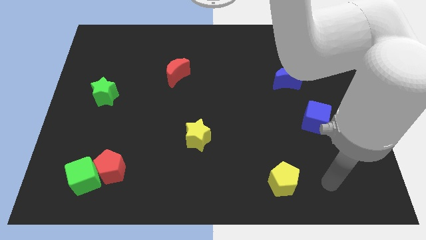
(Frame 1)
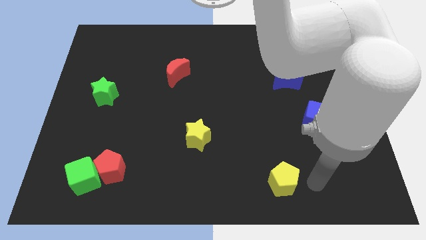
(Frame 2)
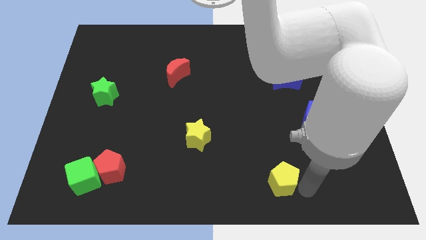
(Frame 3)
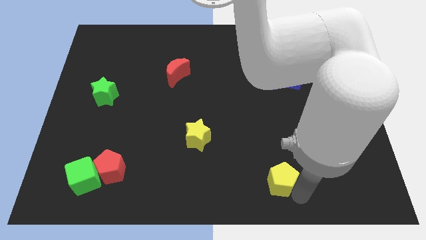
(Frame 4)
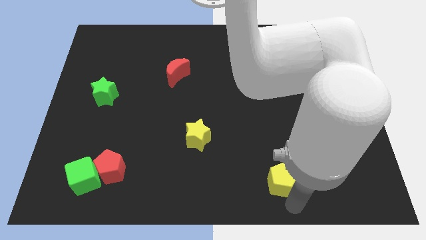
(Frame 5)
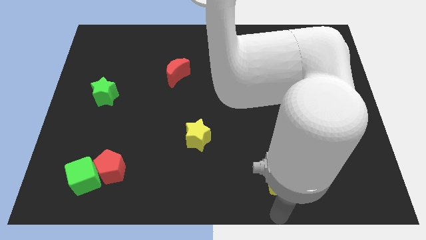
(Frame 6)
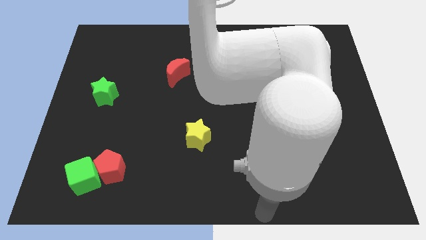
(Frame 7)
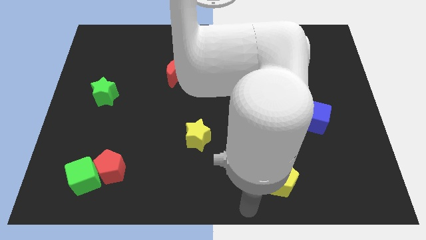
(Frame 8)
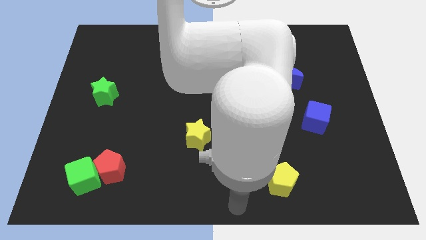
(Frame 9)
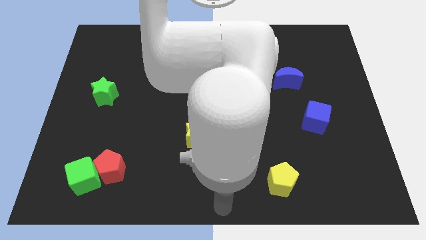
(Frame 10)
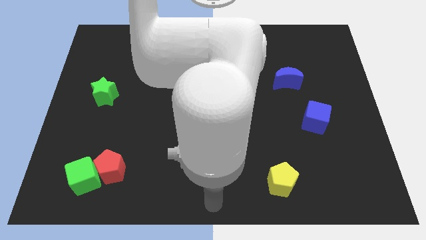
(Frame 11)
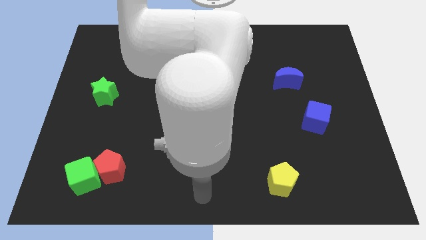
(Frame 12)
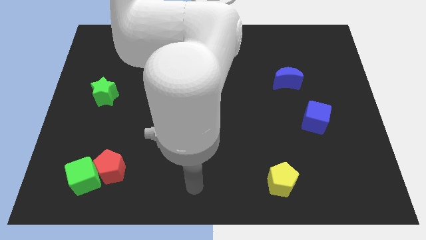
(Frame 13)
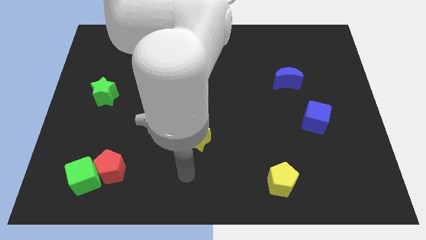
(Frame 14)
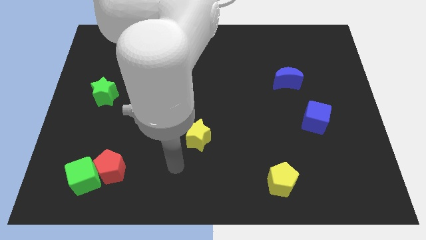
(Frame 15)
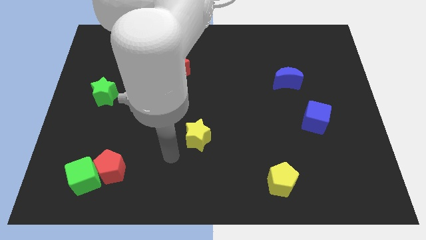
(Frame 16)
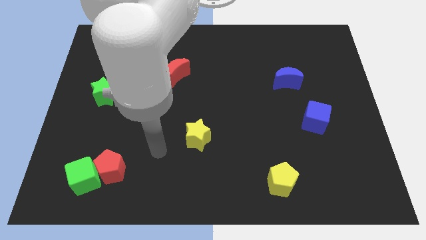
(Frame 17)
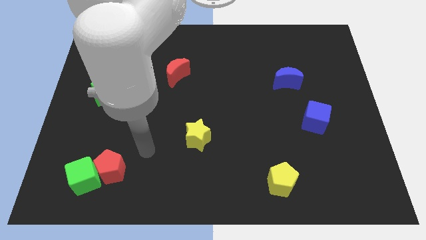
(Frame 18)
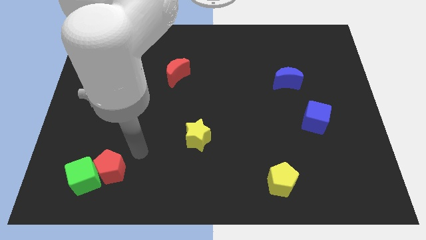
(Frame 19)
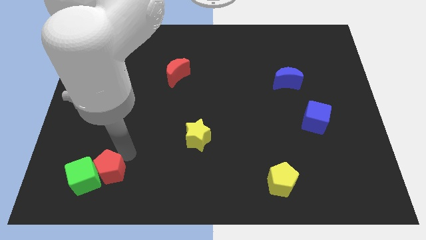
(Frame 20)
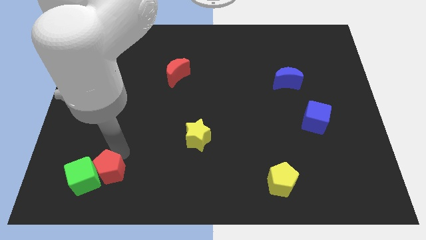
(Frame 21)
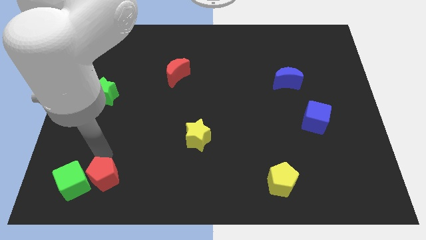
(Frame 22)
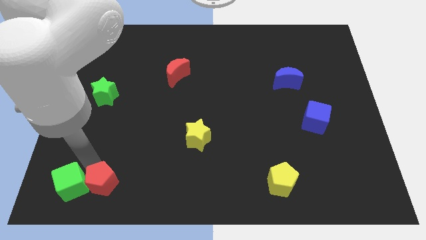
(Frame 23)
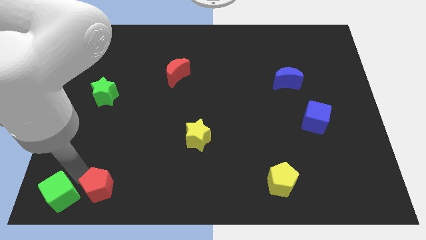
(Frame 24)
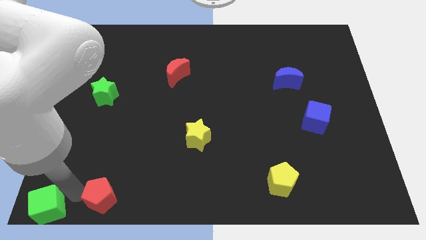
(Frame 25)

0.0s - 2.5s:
pull the red pentagon apart from the green cube

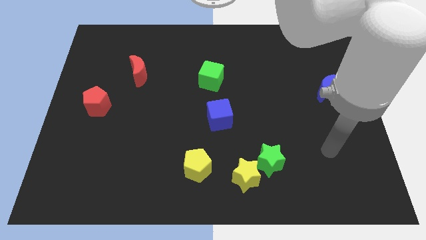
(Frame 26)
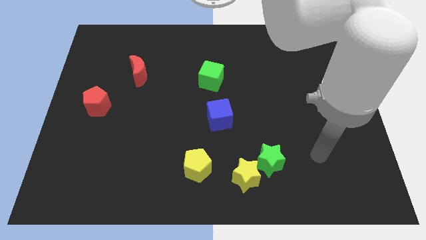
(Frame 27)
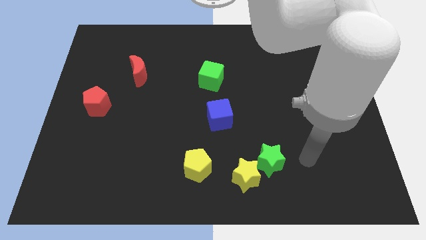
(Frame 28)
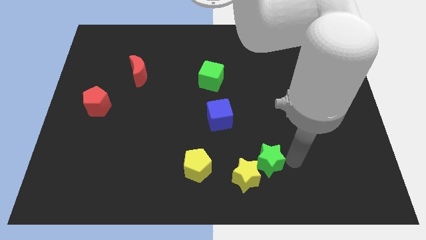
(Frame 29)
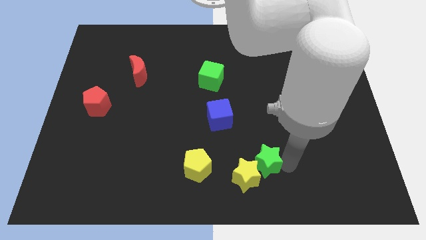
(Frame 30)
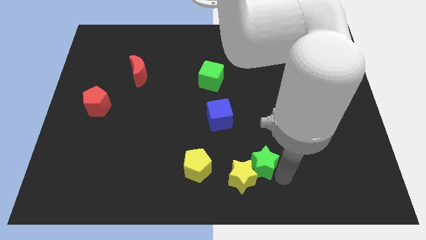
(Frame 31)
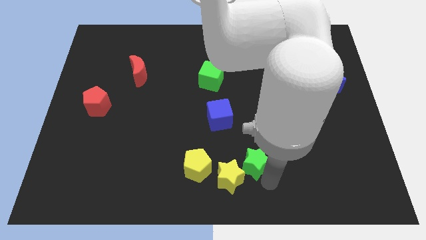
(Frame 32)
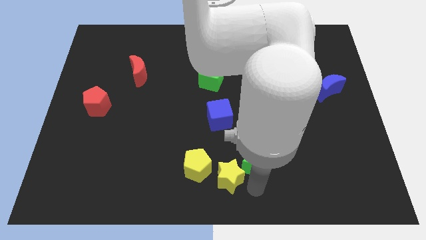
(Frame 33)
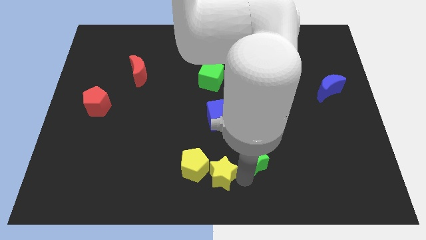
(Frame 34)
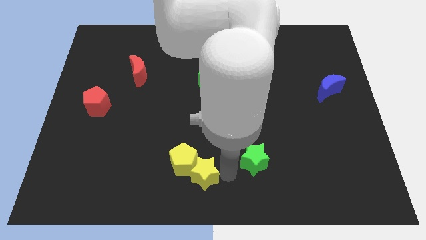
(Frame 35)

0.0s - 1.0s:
separate the green star from the yellow star

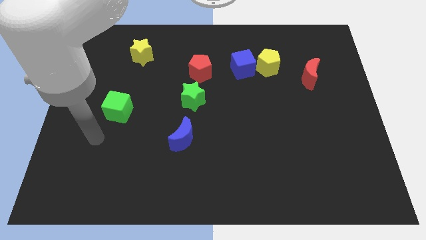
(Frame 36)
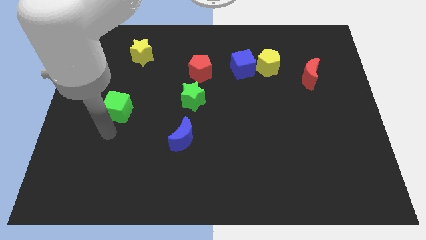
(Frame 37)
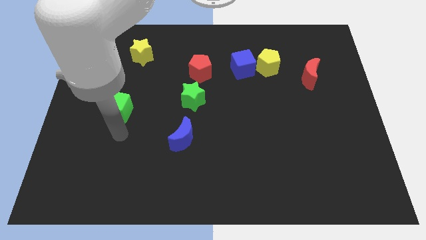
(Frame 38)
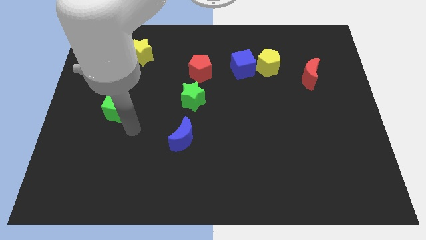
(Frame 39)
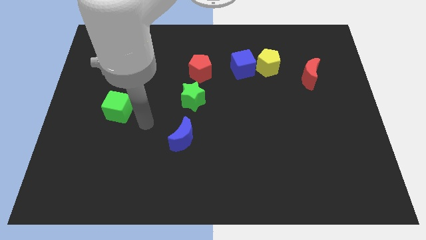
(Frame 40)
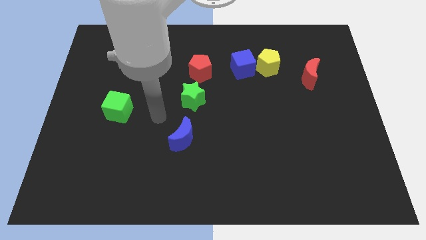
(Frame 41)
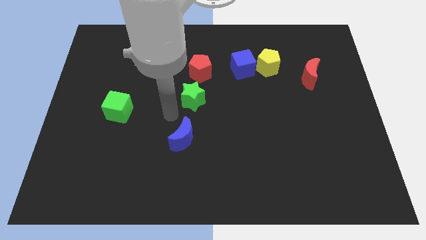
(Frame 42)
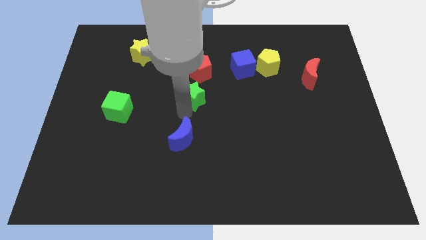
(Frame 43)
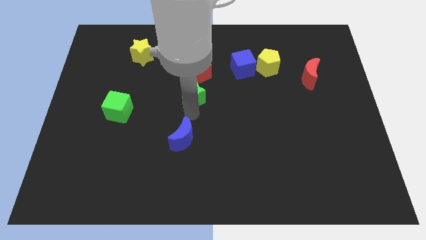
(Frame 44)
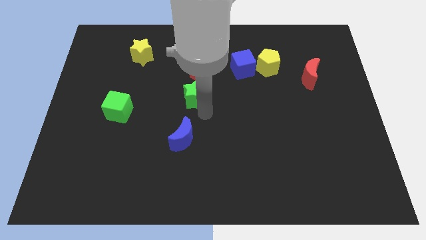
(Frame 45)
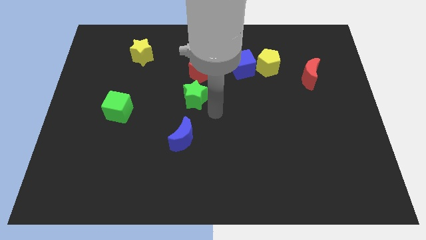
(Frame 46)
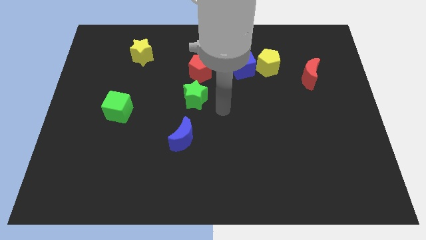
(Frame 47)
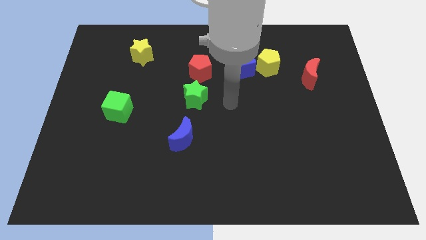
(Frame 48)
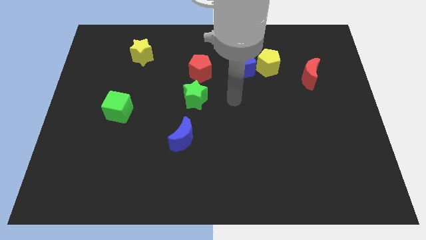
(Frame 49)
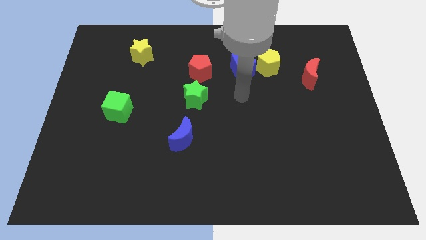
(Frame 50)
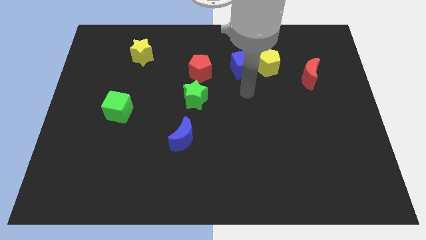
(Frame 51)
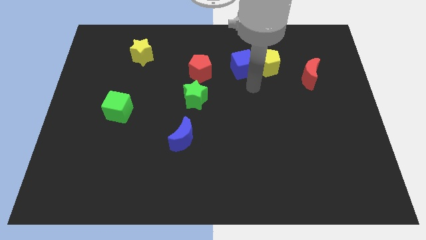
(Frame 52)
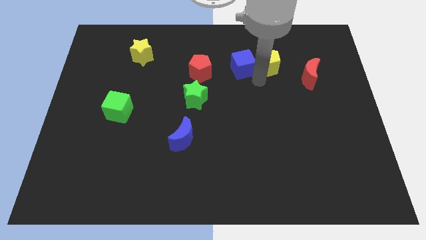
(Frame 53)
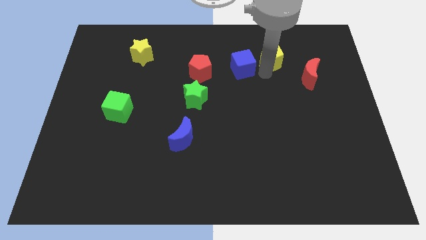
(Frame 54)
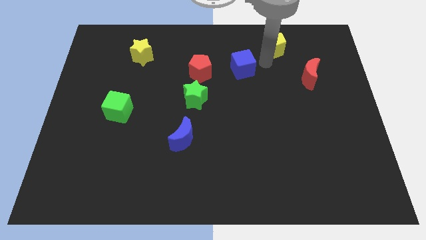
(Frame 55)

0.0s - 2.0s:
separate the blue cube from the yellow pentagon

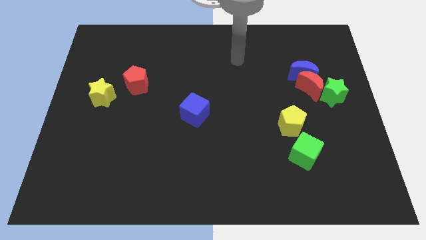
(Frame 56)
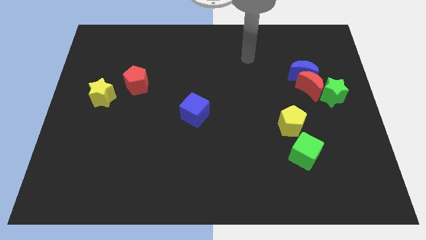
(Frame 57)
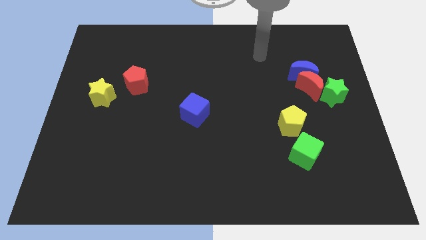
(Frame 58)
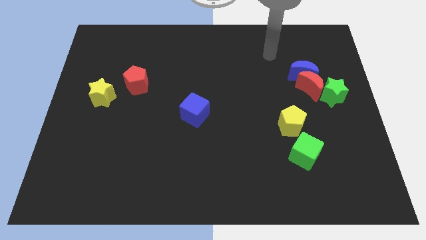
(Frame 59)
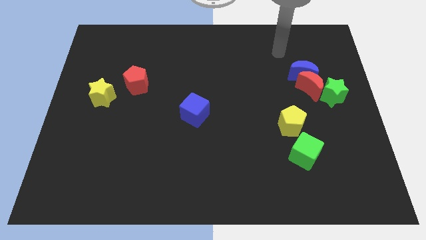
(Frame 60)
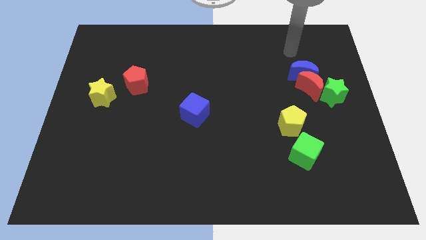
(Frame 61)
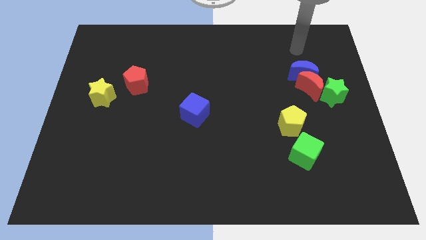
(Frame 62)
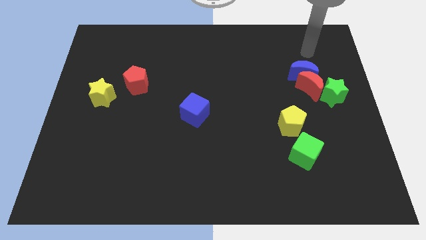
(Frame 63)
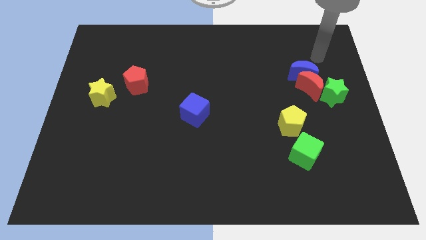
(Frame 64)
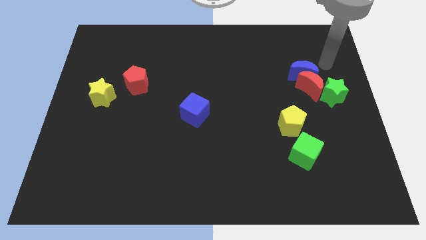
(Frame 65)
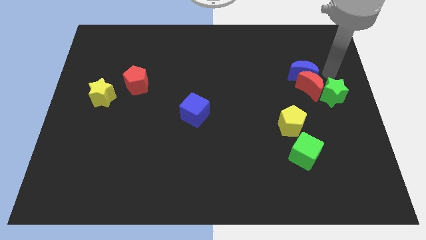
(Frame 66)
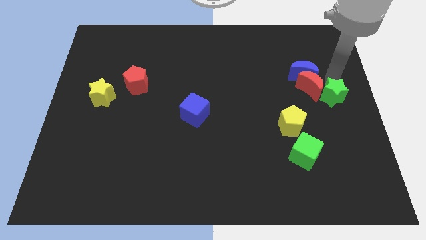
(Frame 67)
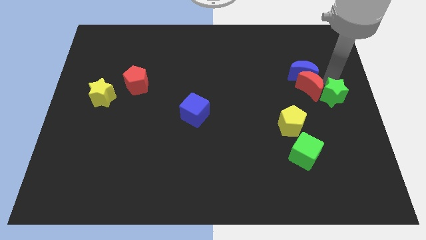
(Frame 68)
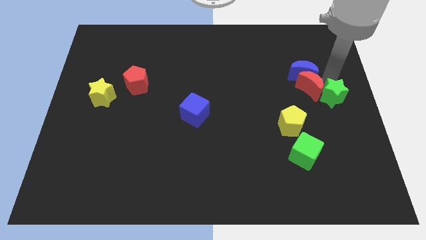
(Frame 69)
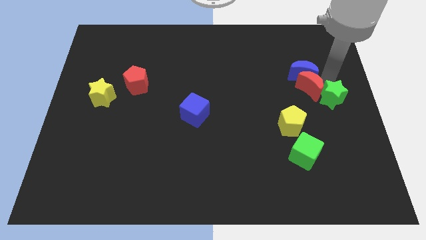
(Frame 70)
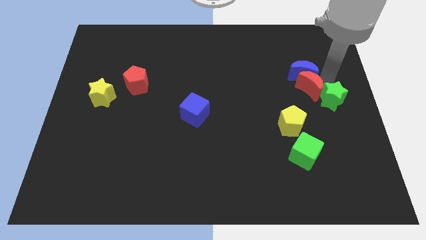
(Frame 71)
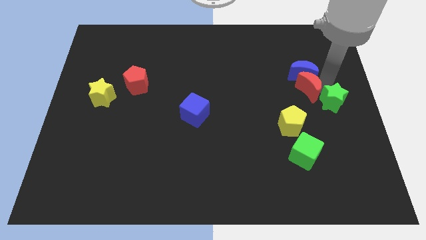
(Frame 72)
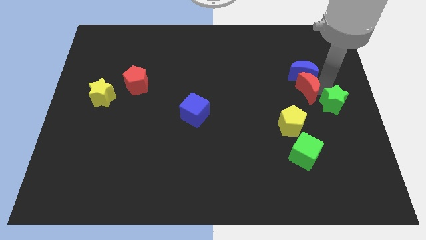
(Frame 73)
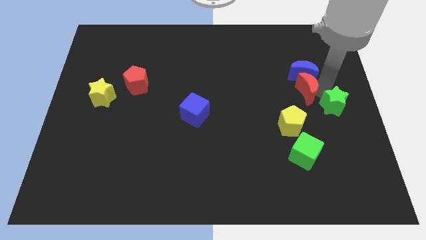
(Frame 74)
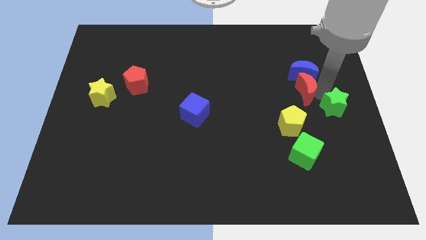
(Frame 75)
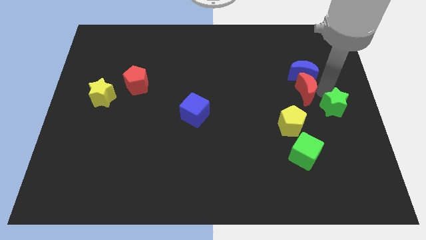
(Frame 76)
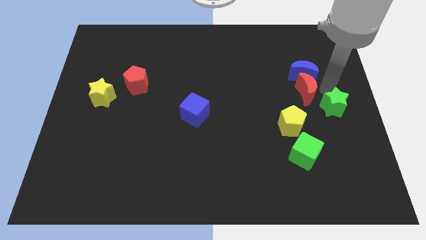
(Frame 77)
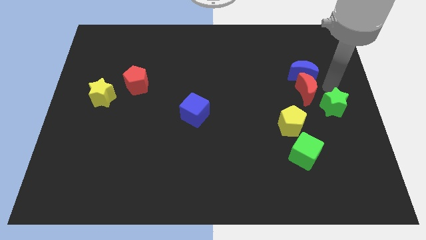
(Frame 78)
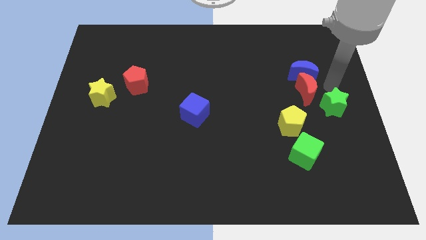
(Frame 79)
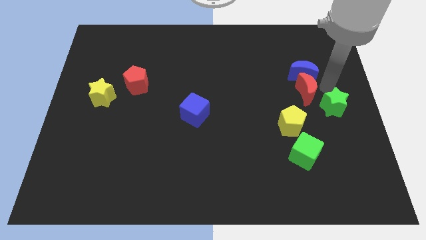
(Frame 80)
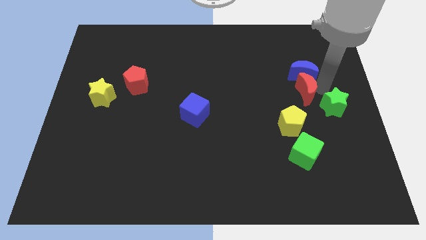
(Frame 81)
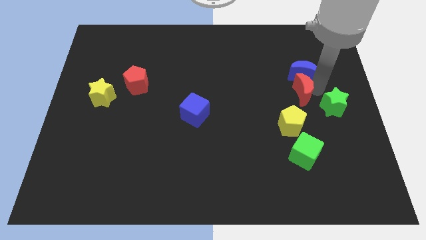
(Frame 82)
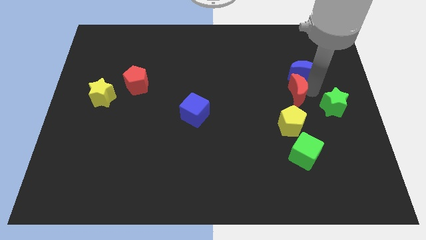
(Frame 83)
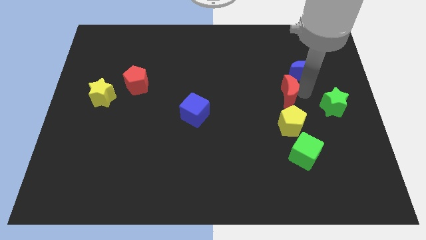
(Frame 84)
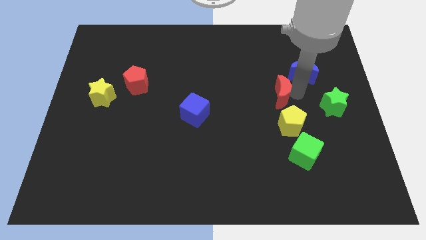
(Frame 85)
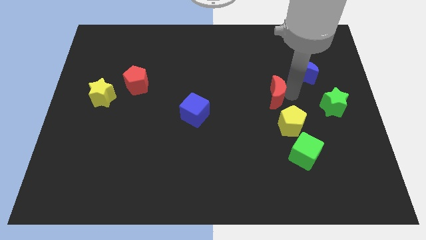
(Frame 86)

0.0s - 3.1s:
separate the red moon from the blue moon and green star

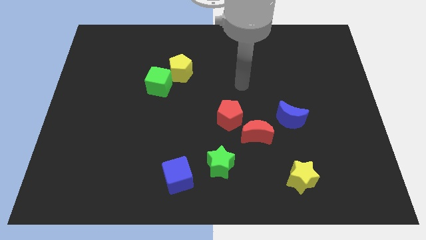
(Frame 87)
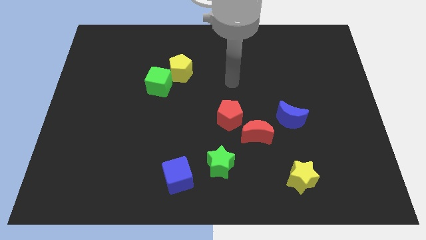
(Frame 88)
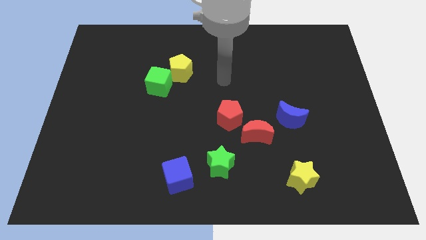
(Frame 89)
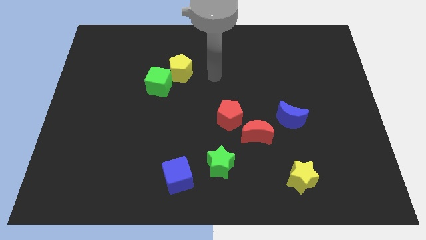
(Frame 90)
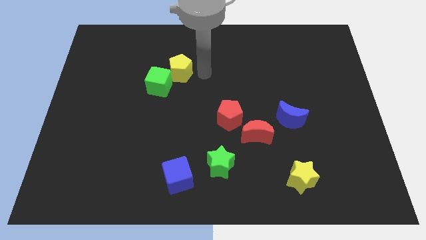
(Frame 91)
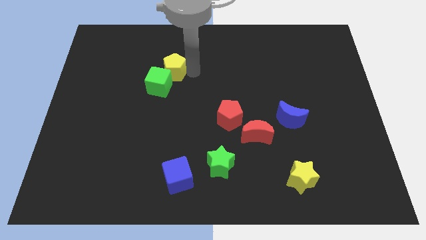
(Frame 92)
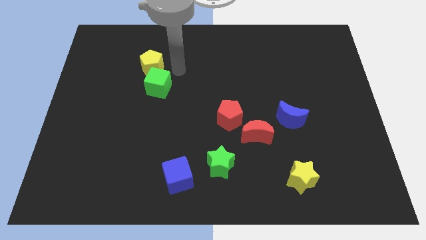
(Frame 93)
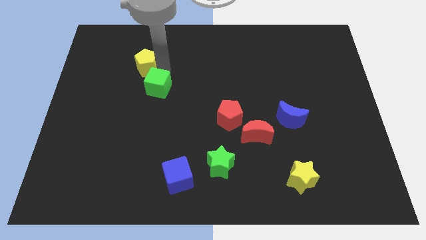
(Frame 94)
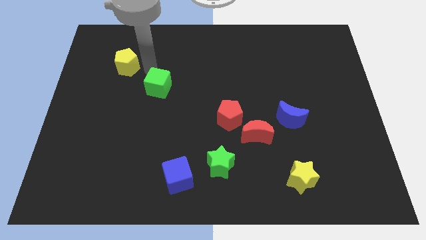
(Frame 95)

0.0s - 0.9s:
pull the green cube apart from the yellow pentagon
